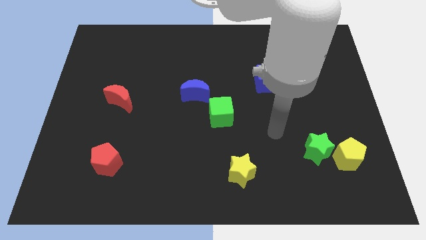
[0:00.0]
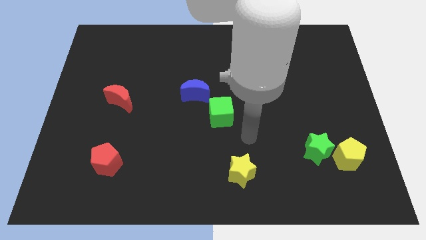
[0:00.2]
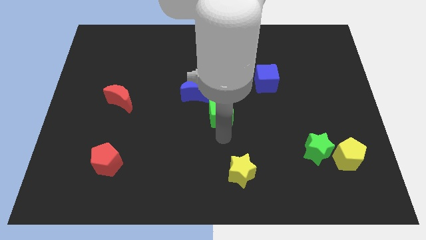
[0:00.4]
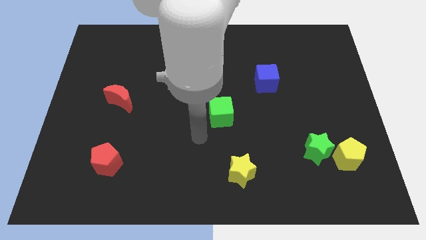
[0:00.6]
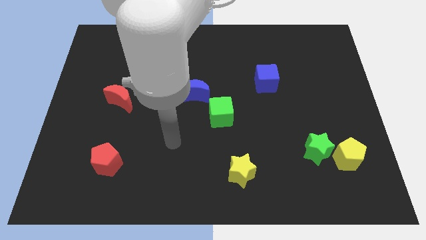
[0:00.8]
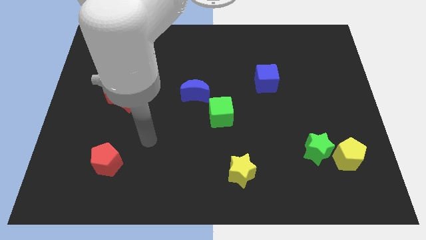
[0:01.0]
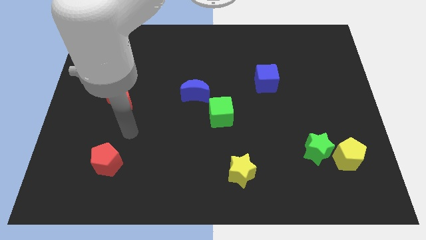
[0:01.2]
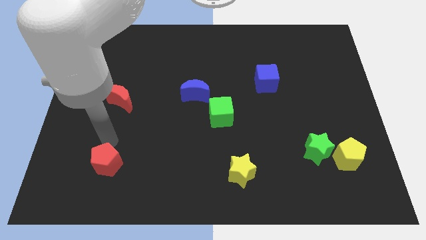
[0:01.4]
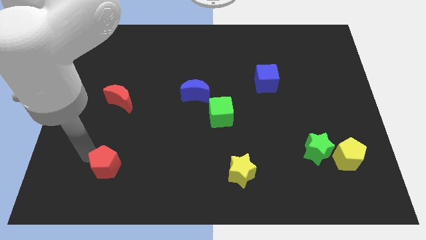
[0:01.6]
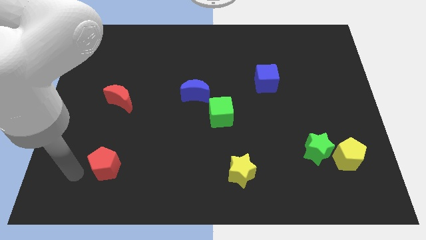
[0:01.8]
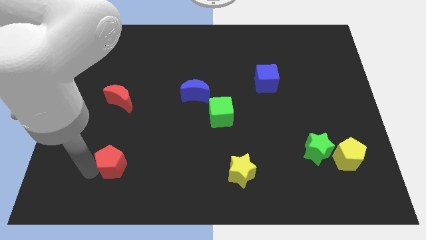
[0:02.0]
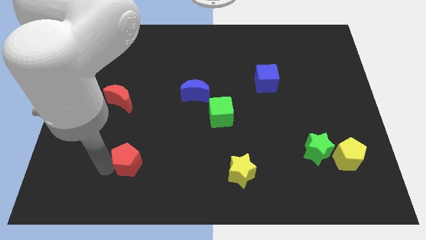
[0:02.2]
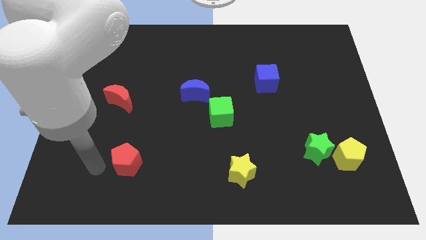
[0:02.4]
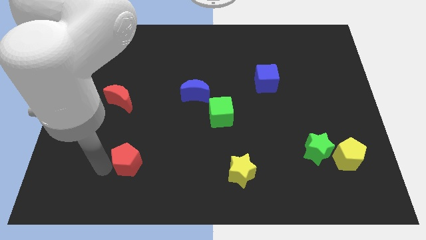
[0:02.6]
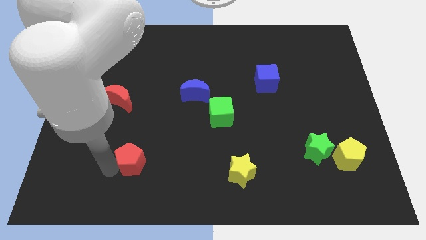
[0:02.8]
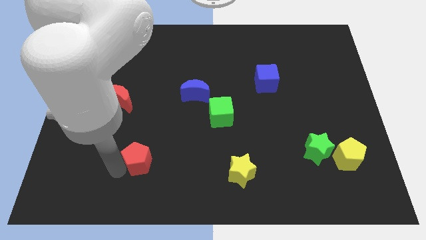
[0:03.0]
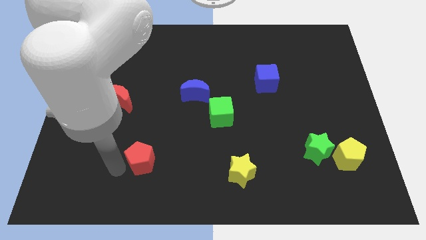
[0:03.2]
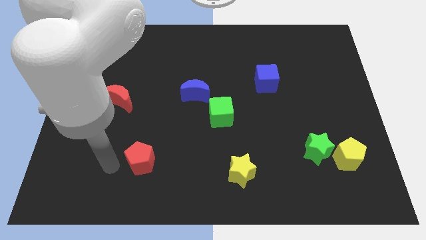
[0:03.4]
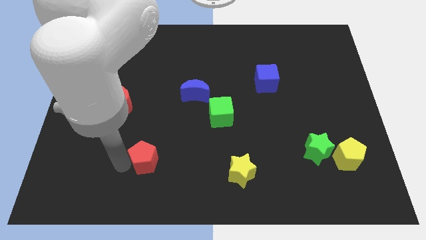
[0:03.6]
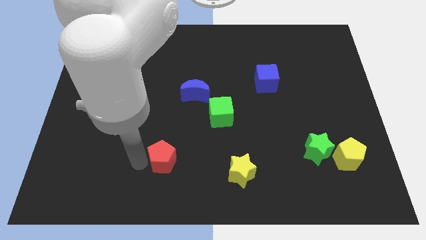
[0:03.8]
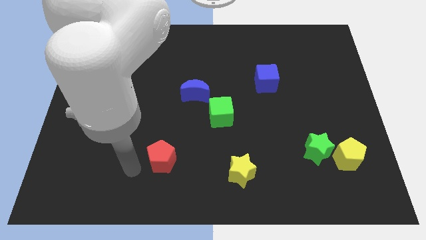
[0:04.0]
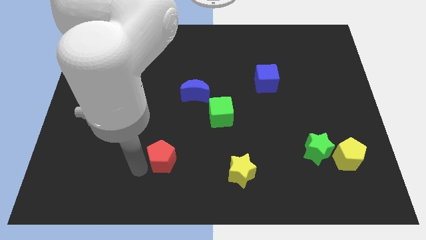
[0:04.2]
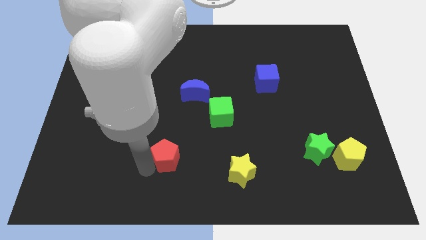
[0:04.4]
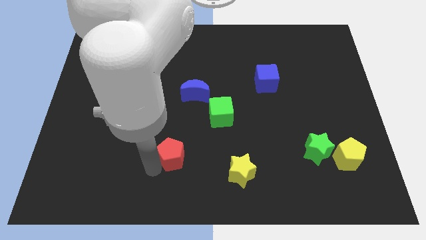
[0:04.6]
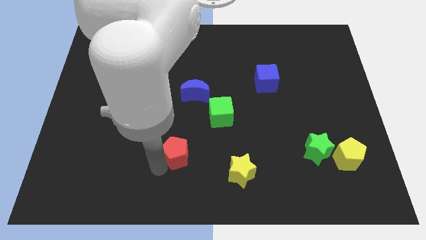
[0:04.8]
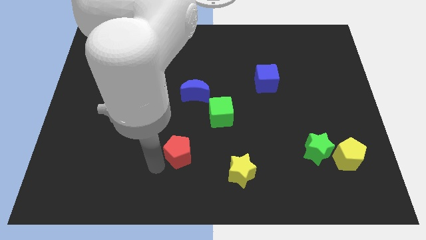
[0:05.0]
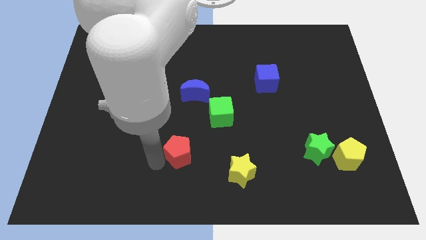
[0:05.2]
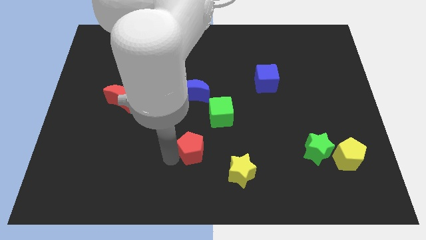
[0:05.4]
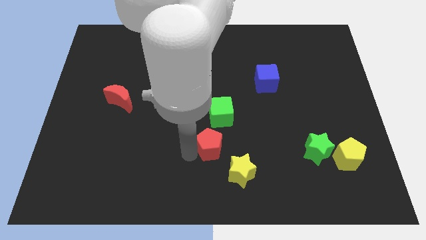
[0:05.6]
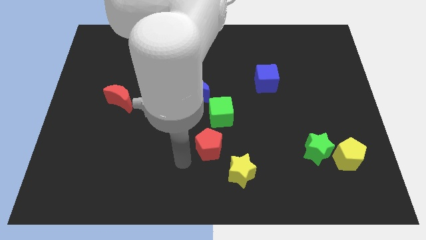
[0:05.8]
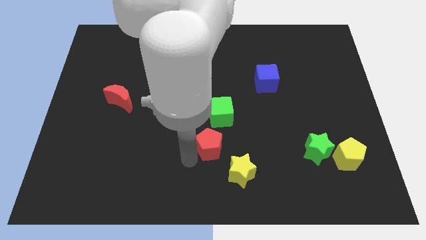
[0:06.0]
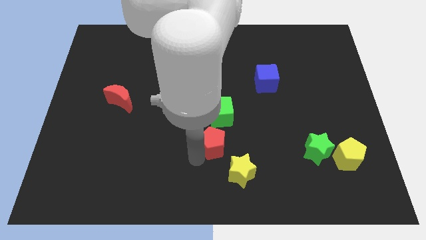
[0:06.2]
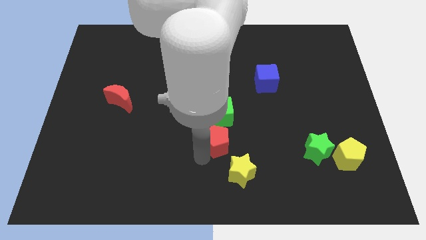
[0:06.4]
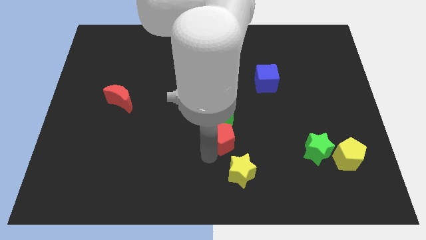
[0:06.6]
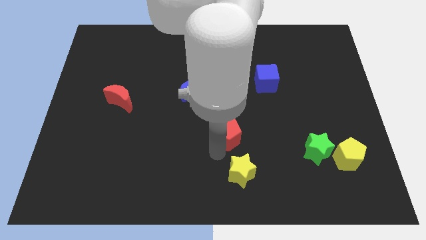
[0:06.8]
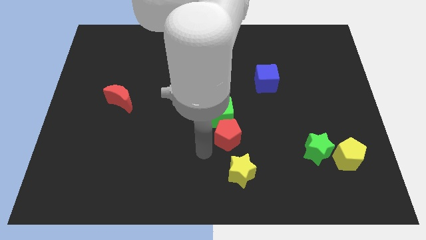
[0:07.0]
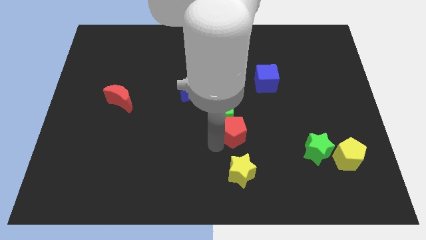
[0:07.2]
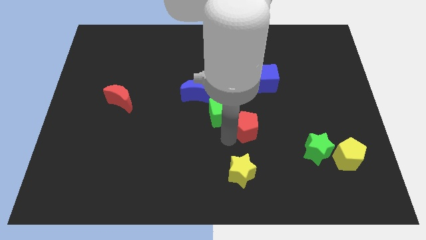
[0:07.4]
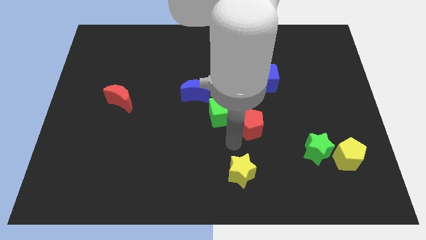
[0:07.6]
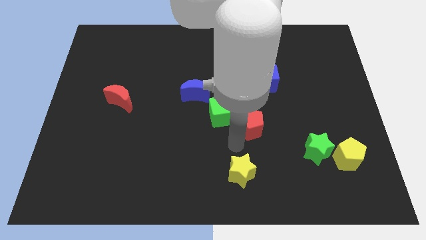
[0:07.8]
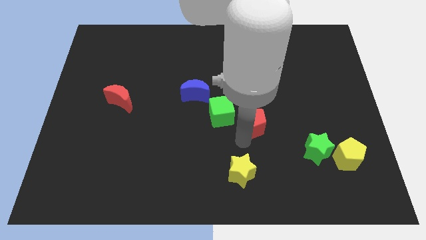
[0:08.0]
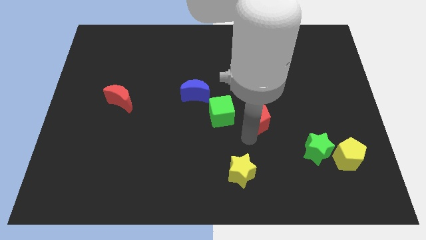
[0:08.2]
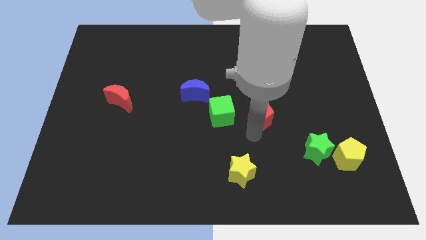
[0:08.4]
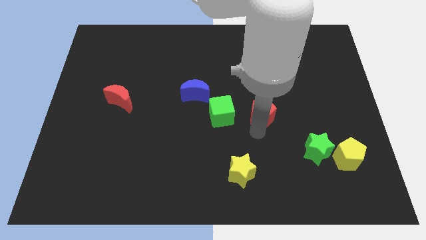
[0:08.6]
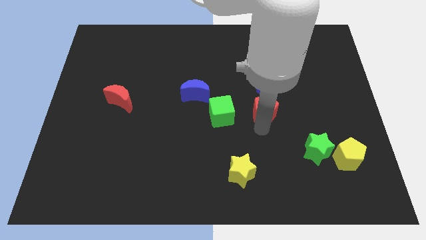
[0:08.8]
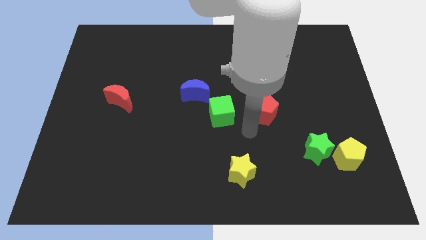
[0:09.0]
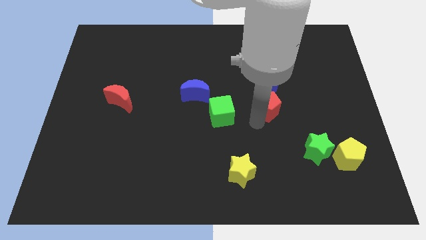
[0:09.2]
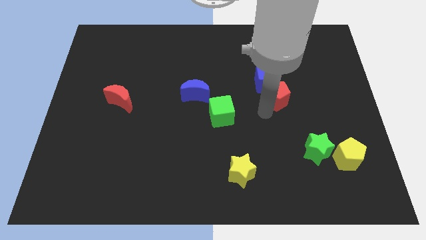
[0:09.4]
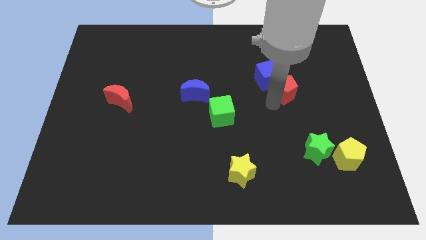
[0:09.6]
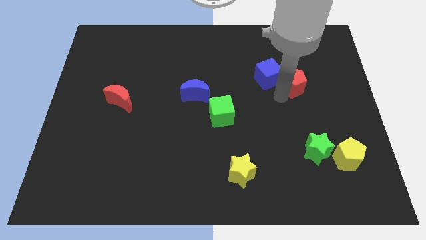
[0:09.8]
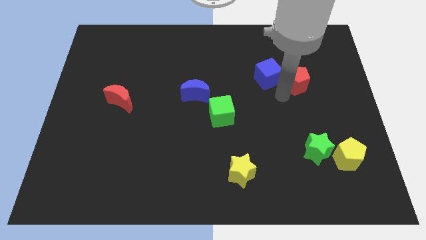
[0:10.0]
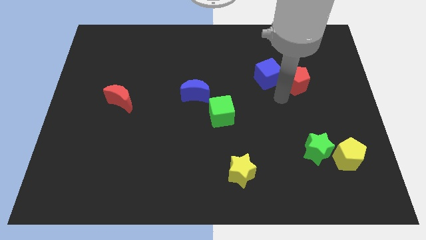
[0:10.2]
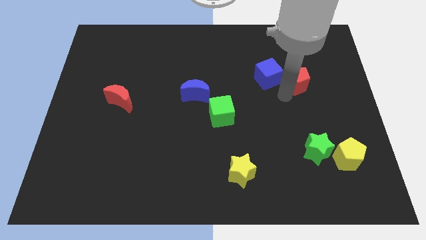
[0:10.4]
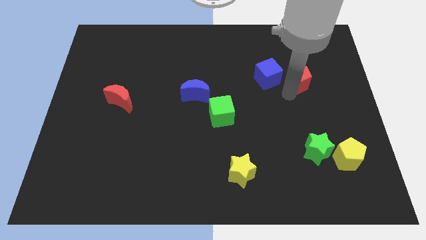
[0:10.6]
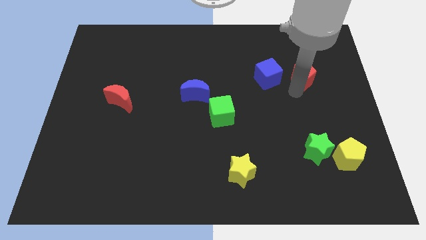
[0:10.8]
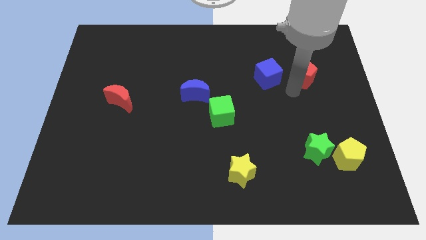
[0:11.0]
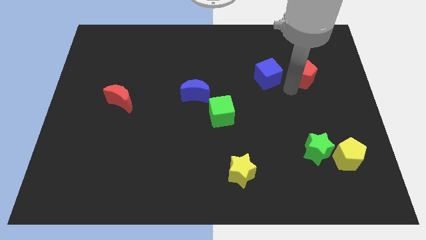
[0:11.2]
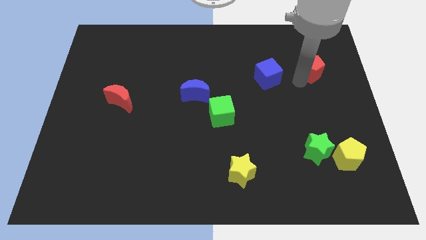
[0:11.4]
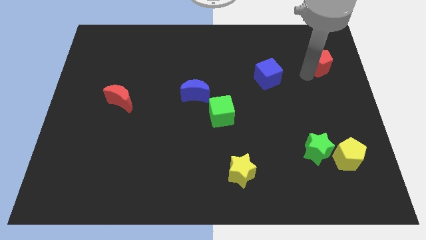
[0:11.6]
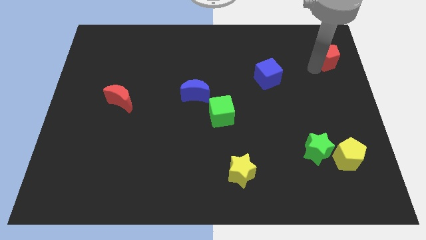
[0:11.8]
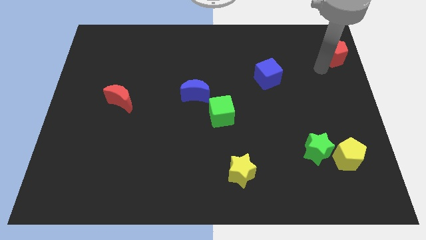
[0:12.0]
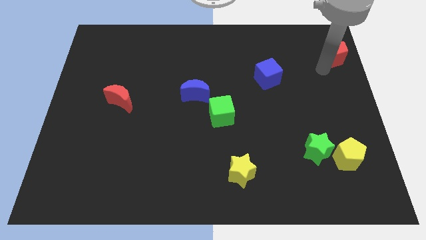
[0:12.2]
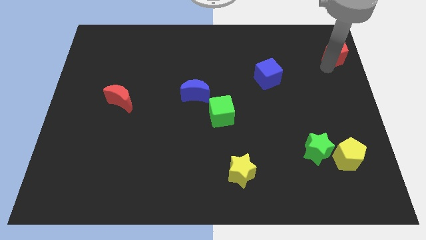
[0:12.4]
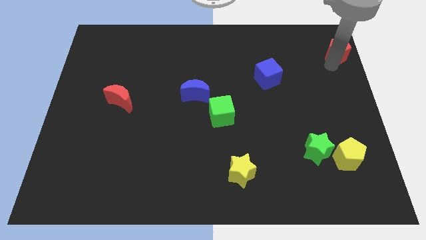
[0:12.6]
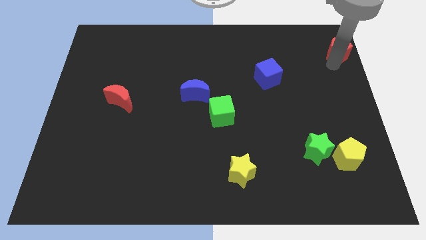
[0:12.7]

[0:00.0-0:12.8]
push the red pentagon to the upper right corner
